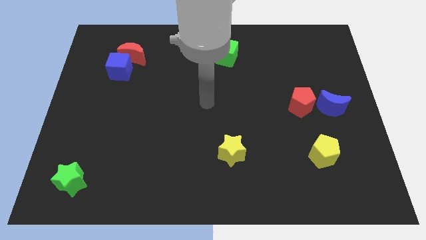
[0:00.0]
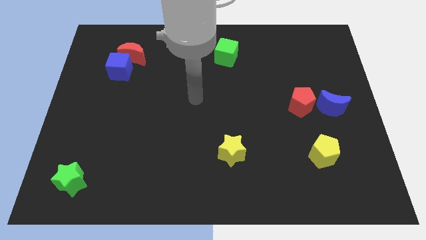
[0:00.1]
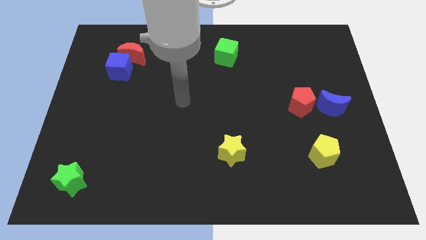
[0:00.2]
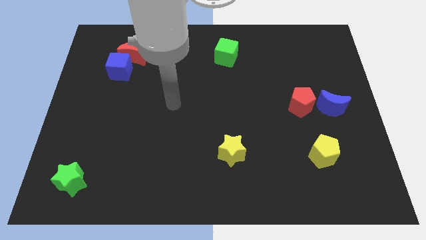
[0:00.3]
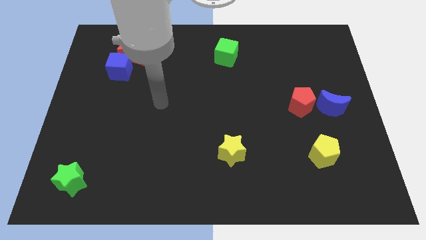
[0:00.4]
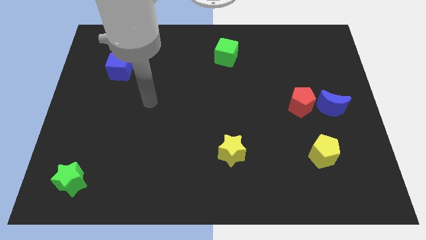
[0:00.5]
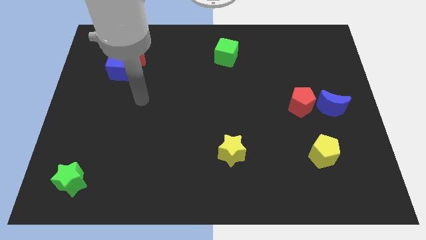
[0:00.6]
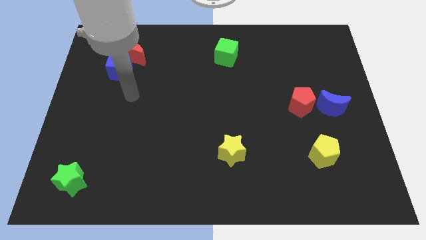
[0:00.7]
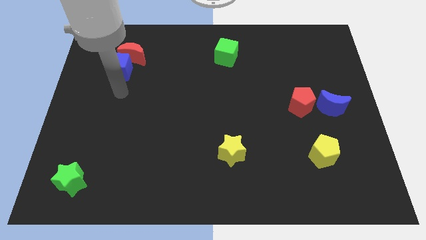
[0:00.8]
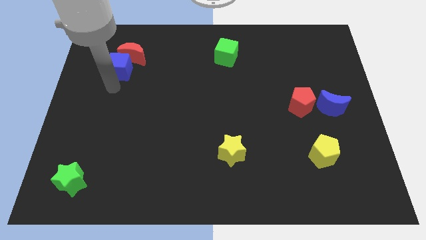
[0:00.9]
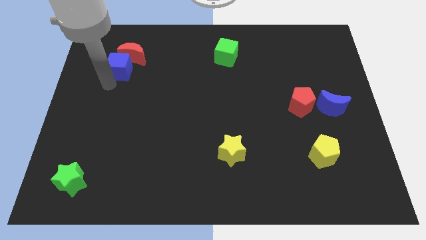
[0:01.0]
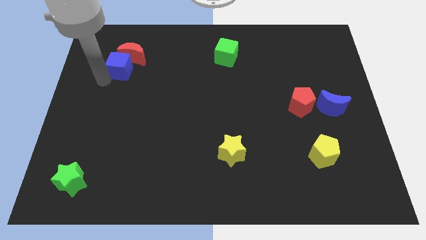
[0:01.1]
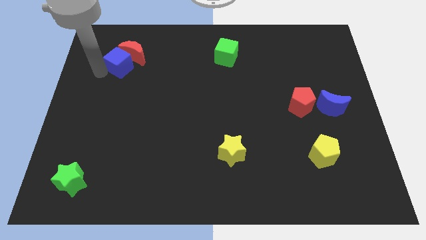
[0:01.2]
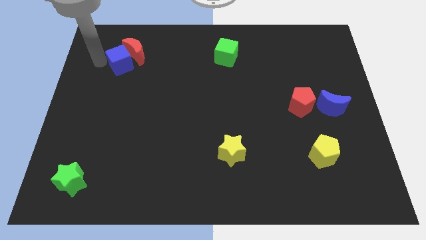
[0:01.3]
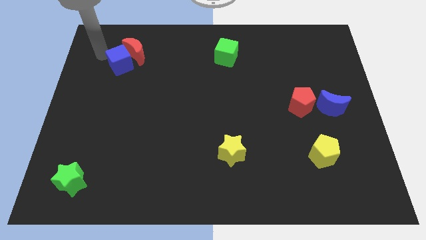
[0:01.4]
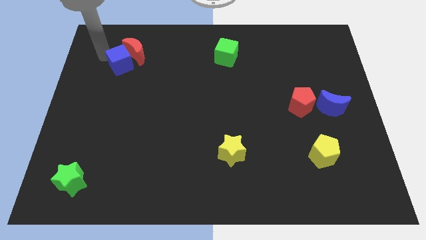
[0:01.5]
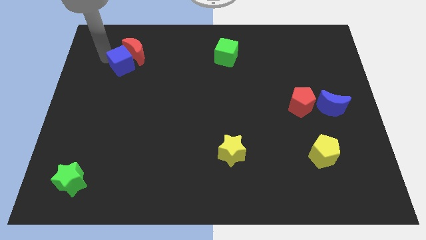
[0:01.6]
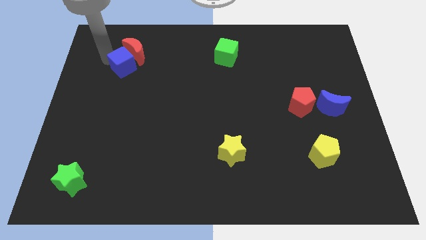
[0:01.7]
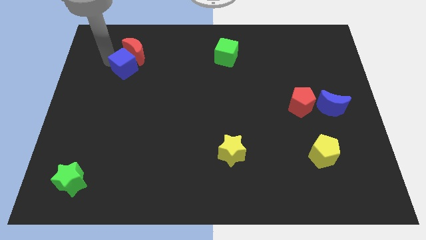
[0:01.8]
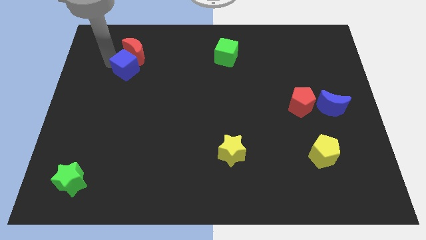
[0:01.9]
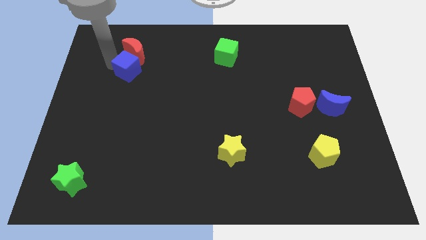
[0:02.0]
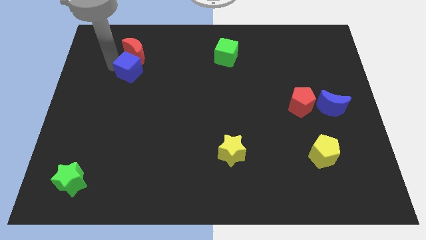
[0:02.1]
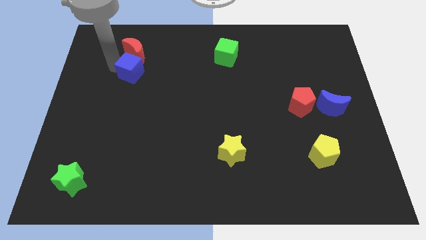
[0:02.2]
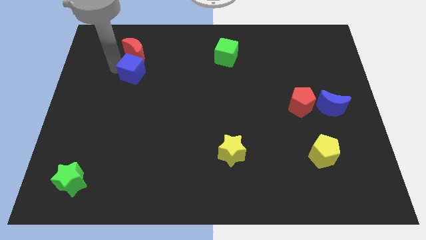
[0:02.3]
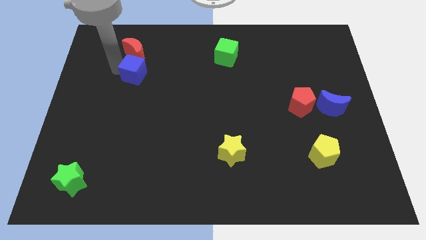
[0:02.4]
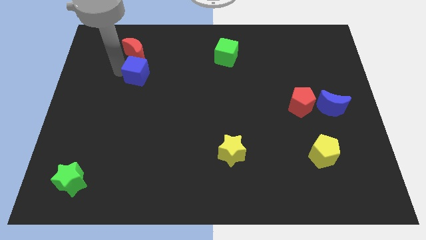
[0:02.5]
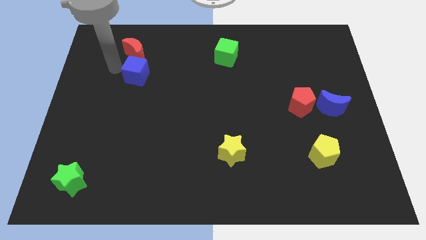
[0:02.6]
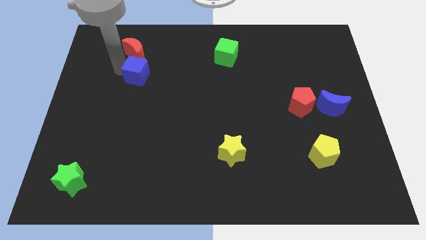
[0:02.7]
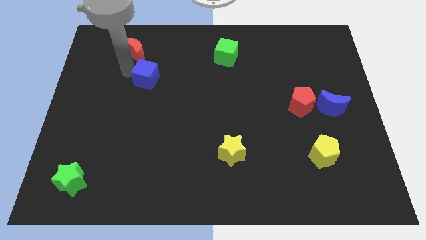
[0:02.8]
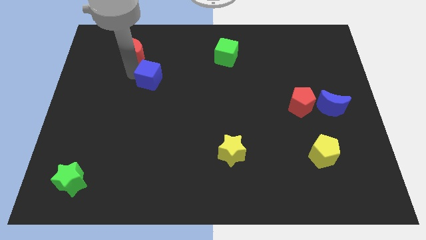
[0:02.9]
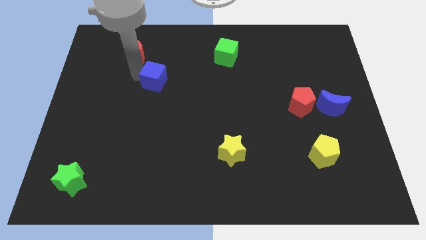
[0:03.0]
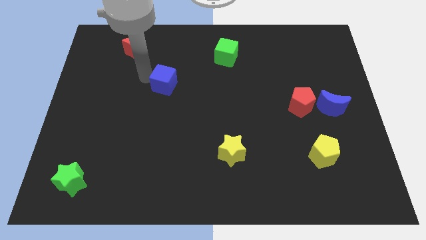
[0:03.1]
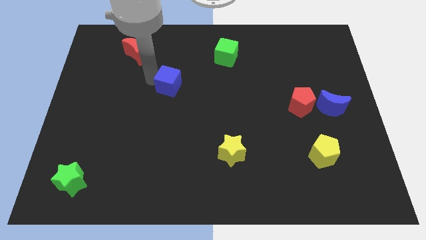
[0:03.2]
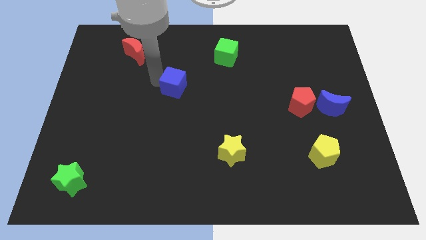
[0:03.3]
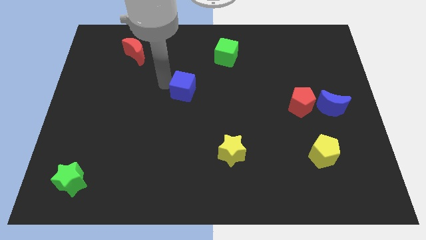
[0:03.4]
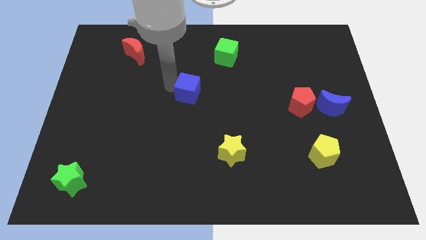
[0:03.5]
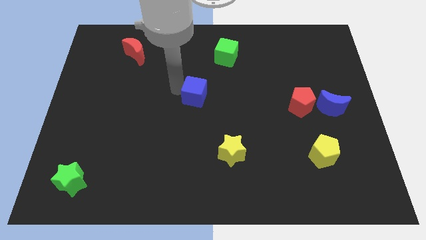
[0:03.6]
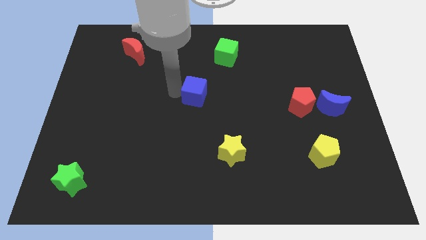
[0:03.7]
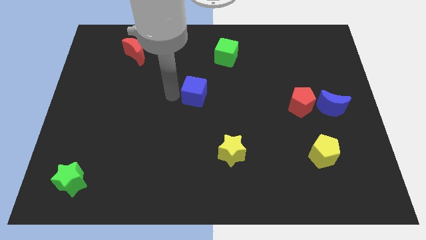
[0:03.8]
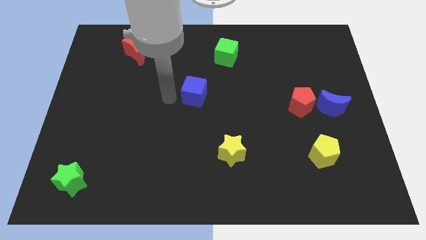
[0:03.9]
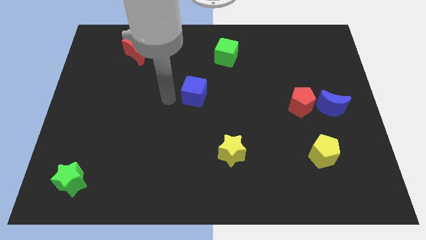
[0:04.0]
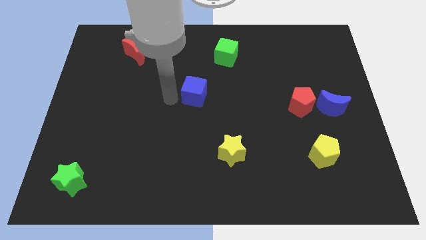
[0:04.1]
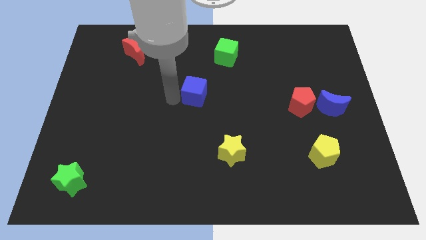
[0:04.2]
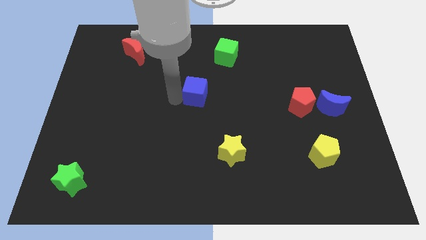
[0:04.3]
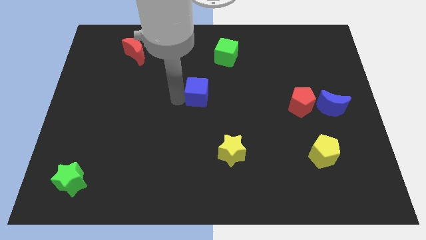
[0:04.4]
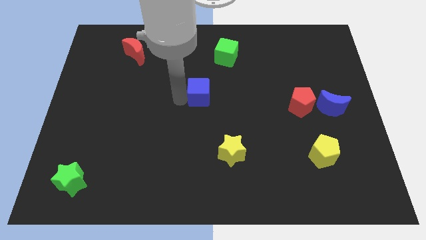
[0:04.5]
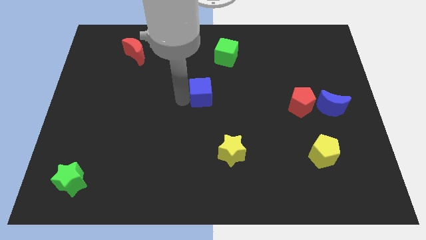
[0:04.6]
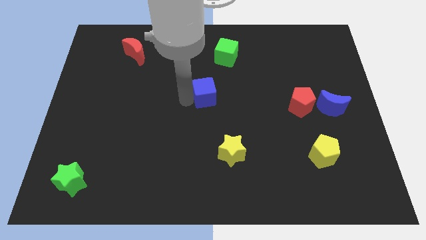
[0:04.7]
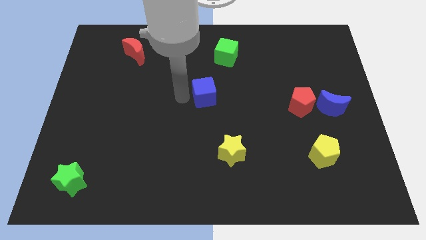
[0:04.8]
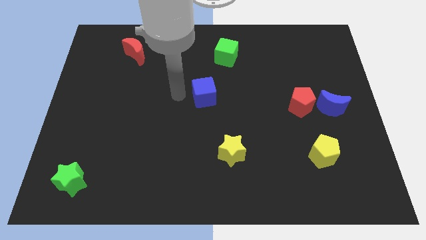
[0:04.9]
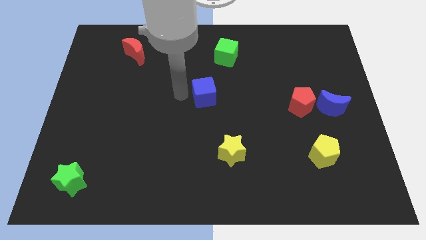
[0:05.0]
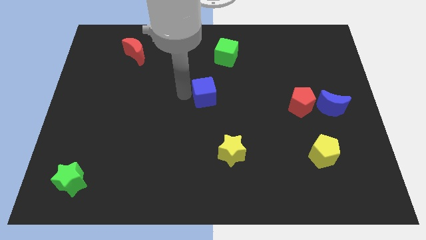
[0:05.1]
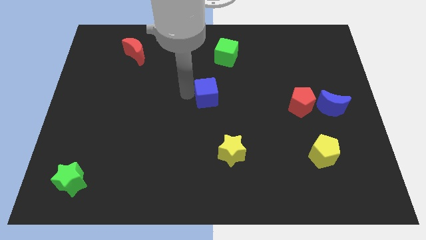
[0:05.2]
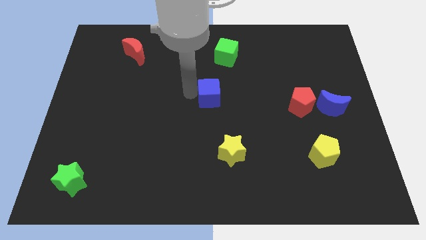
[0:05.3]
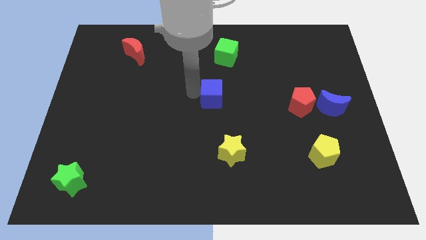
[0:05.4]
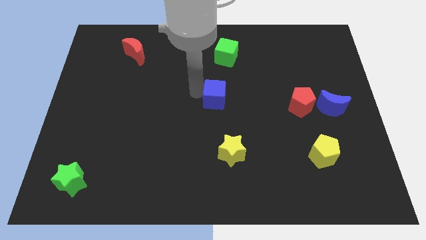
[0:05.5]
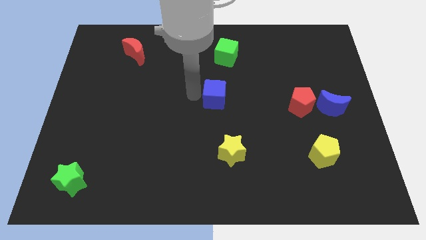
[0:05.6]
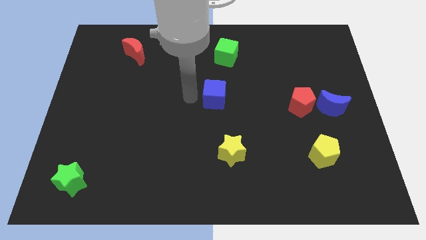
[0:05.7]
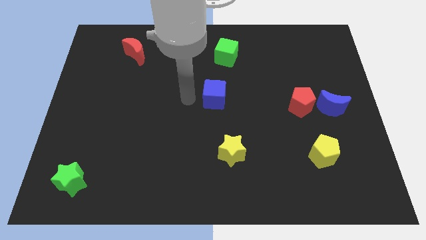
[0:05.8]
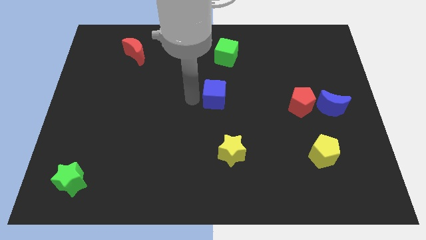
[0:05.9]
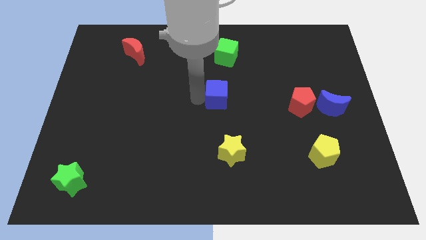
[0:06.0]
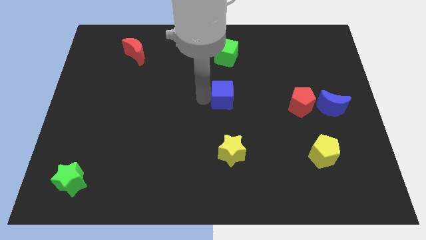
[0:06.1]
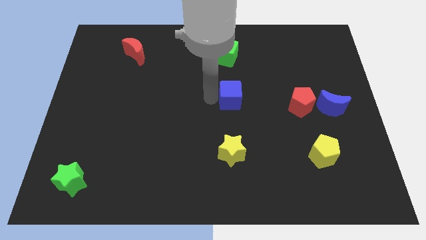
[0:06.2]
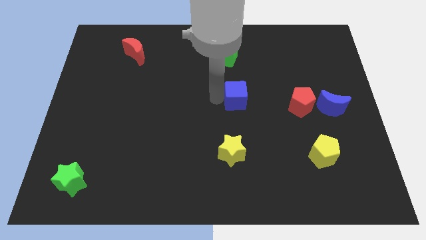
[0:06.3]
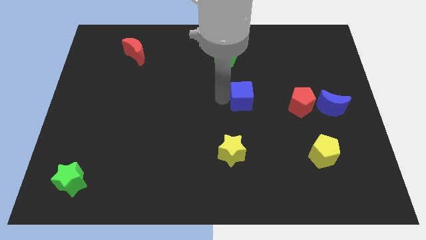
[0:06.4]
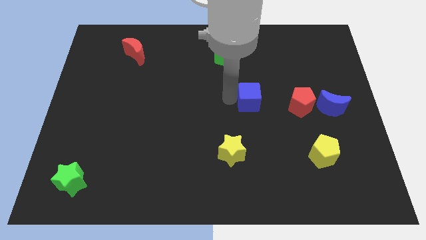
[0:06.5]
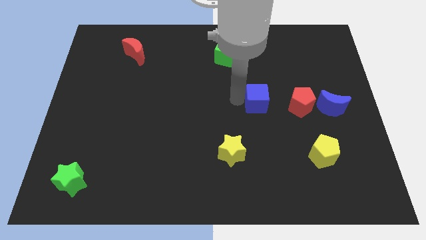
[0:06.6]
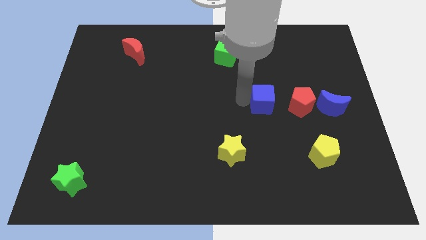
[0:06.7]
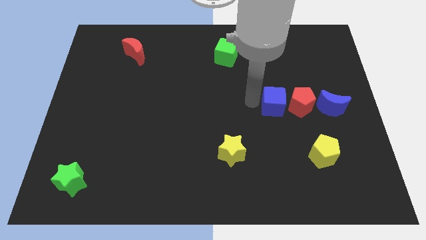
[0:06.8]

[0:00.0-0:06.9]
move the blue cube close to the red pentagon

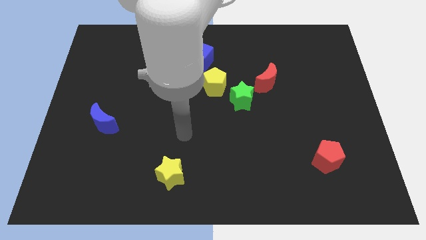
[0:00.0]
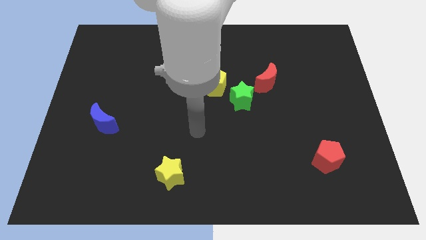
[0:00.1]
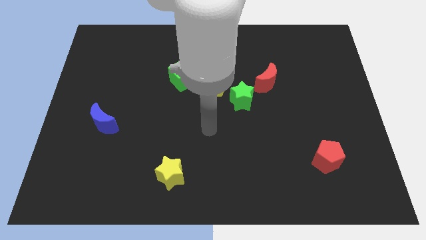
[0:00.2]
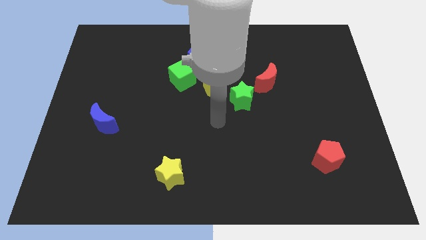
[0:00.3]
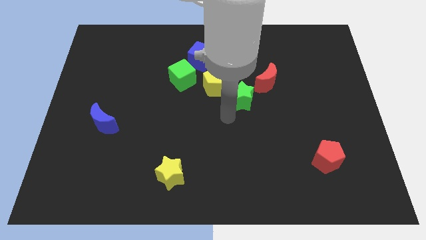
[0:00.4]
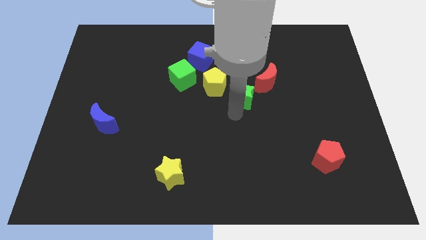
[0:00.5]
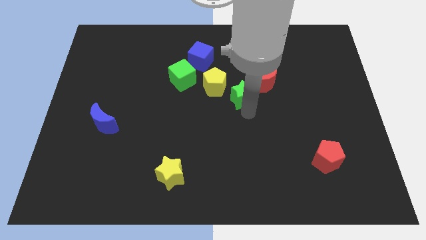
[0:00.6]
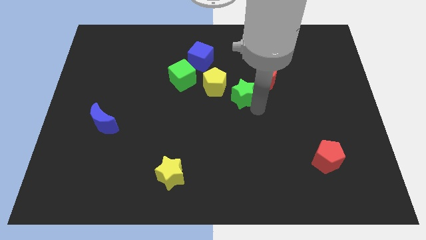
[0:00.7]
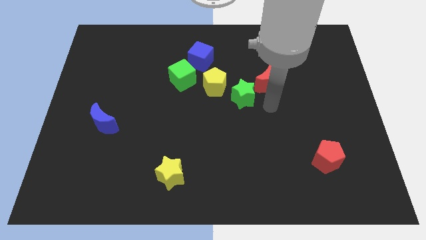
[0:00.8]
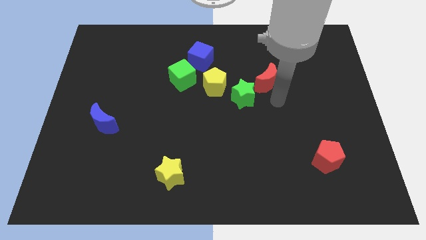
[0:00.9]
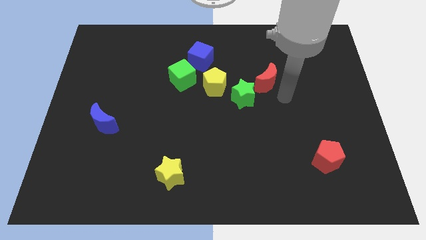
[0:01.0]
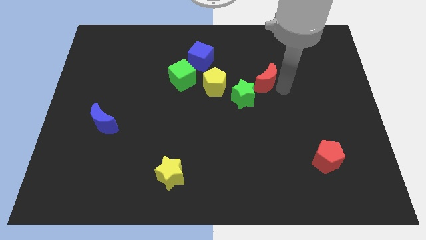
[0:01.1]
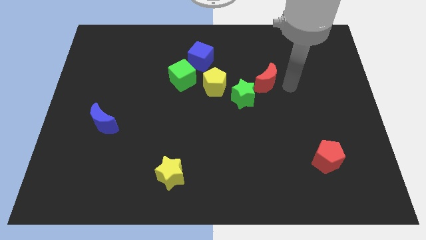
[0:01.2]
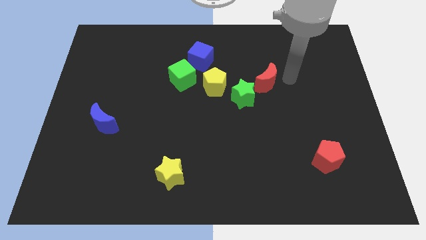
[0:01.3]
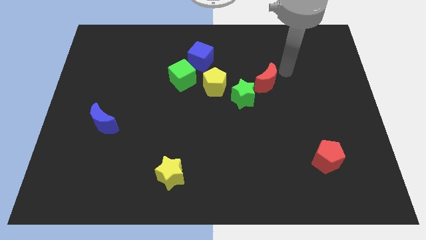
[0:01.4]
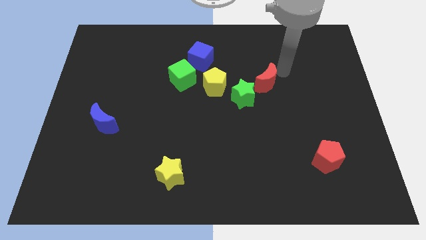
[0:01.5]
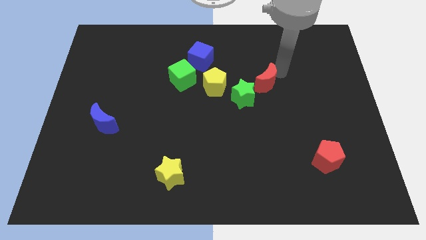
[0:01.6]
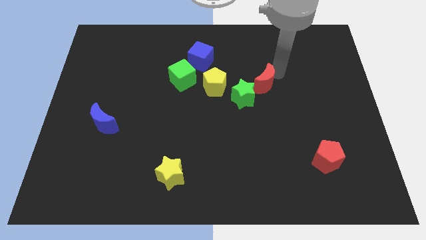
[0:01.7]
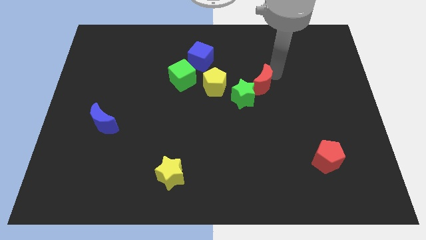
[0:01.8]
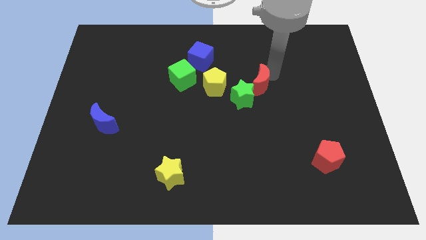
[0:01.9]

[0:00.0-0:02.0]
slide the red moon towards the green star
